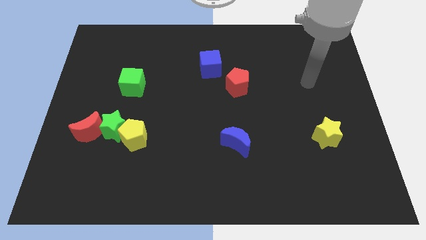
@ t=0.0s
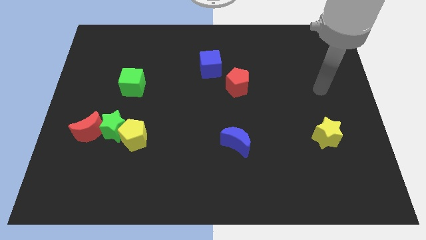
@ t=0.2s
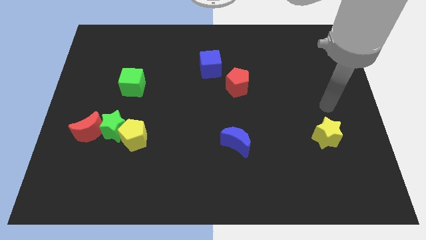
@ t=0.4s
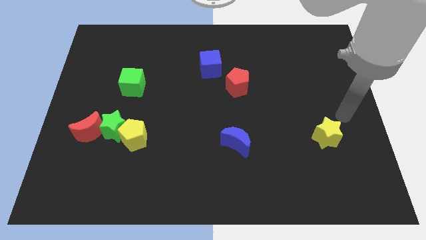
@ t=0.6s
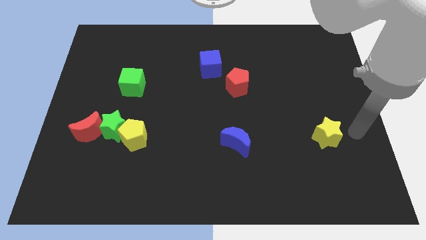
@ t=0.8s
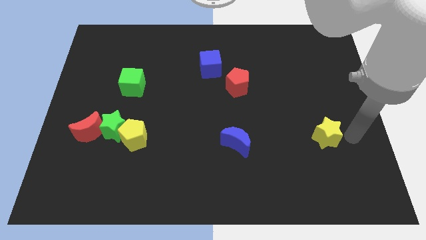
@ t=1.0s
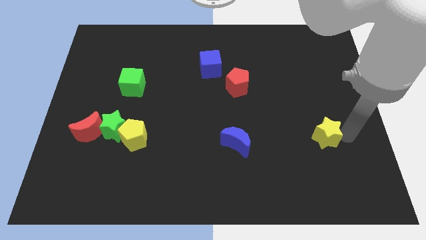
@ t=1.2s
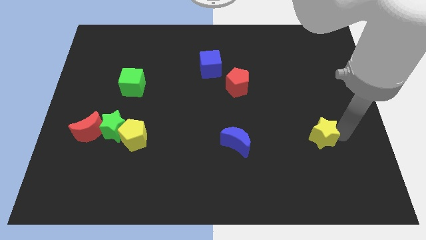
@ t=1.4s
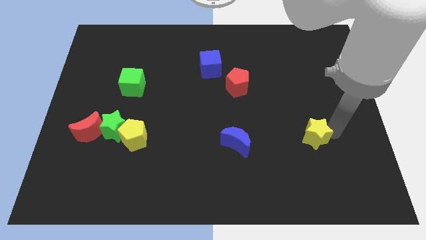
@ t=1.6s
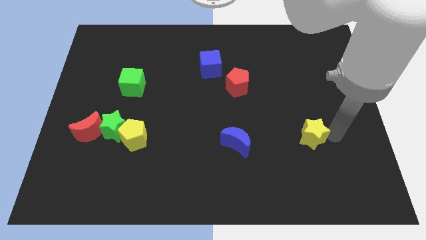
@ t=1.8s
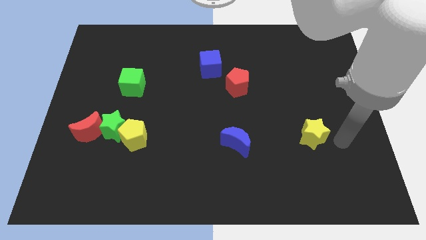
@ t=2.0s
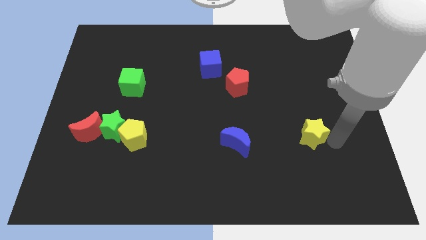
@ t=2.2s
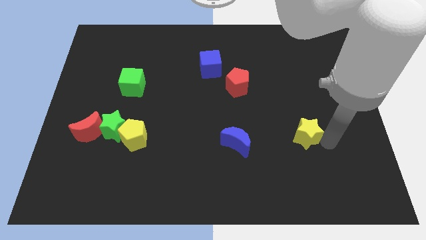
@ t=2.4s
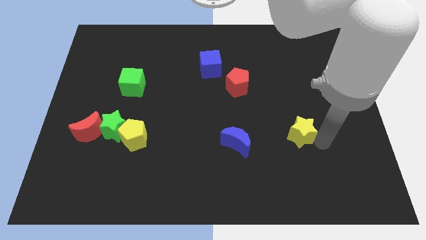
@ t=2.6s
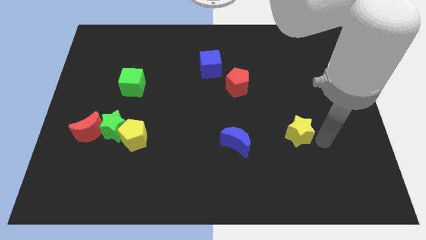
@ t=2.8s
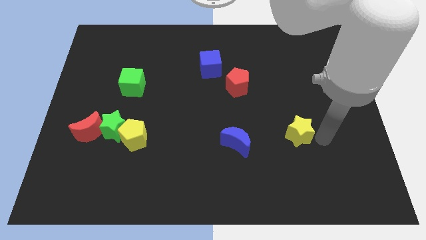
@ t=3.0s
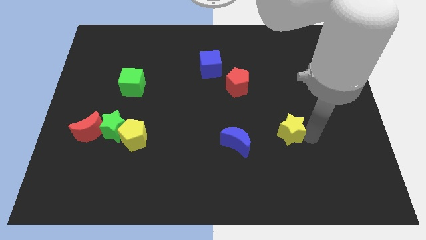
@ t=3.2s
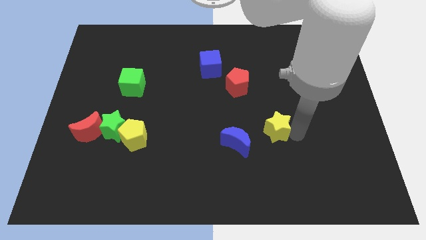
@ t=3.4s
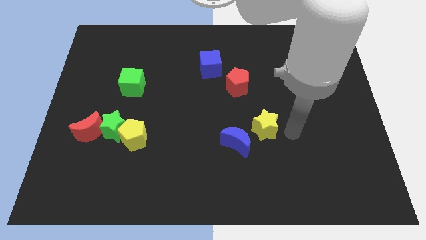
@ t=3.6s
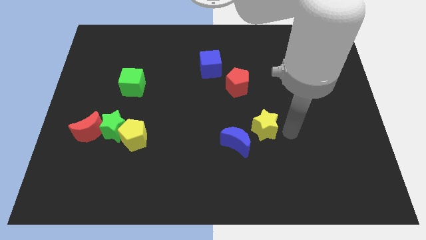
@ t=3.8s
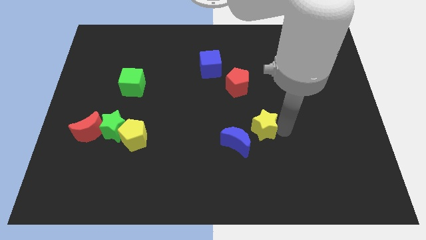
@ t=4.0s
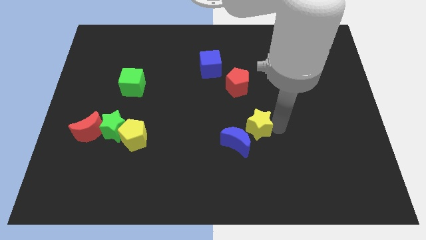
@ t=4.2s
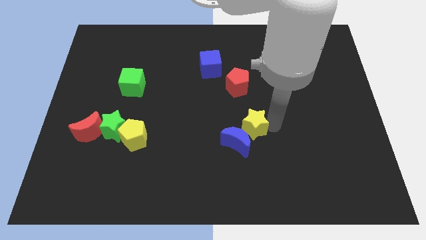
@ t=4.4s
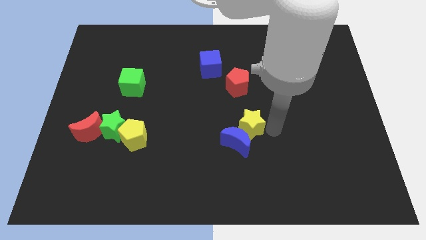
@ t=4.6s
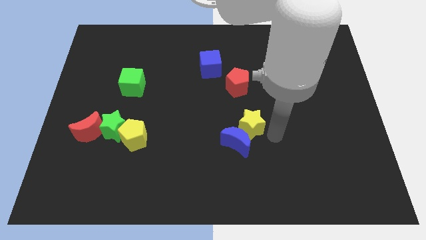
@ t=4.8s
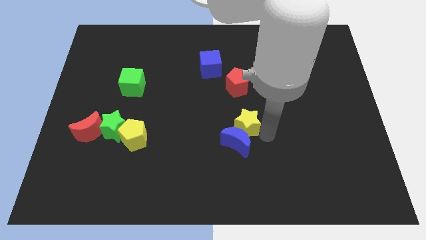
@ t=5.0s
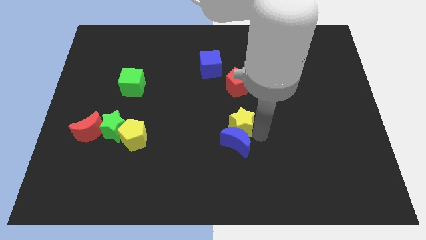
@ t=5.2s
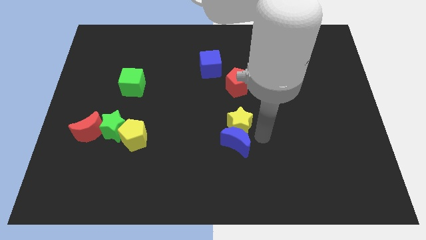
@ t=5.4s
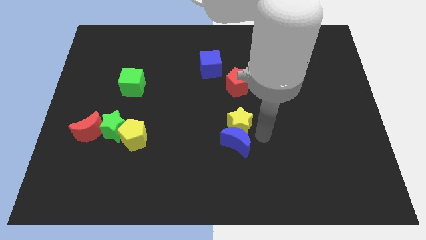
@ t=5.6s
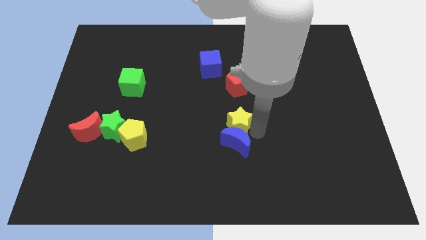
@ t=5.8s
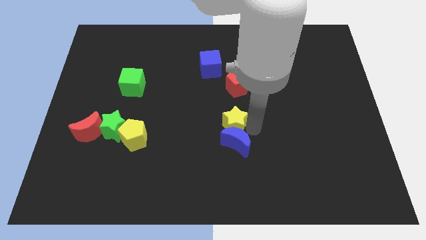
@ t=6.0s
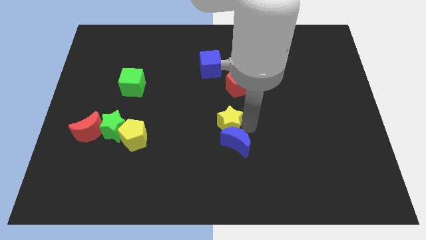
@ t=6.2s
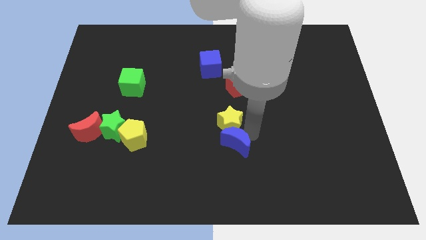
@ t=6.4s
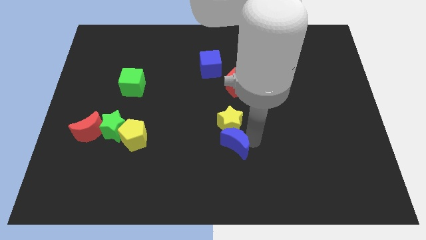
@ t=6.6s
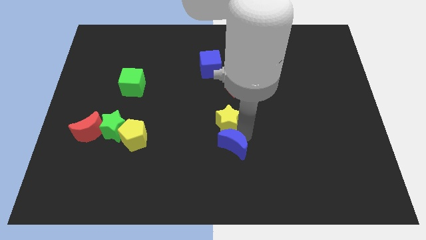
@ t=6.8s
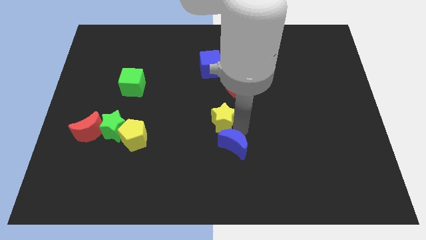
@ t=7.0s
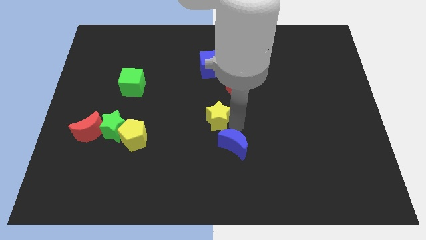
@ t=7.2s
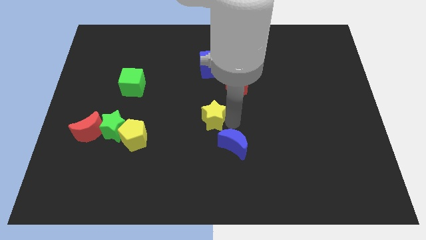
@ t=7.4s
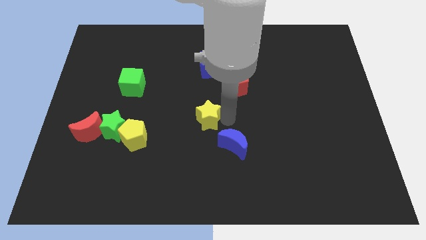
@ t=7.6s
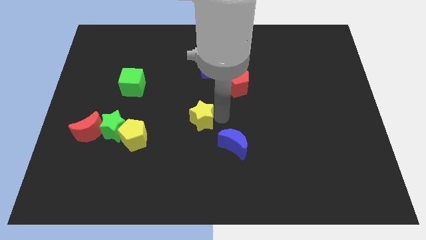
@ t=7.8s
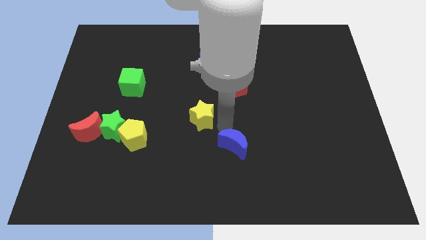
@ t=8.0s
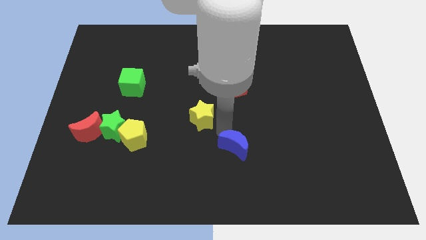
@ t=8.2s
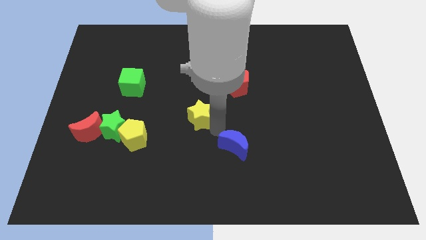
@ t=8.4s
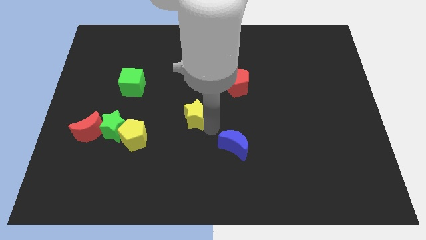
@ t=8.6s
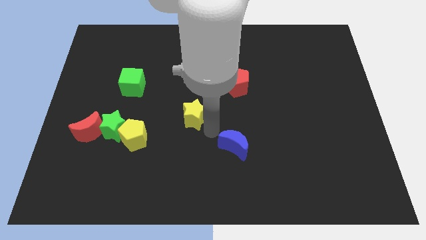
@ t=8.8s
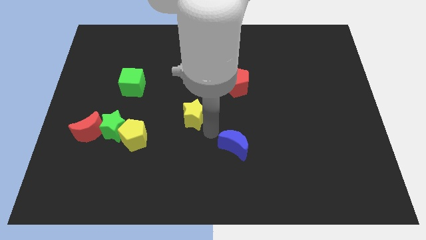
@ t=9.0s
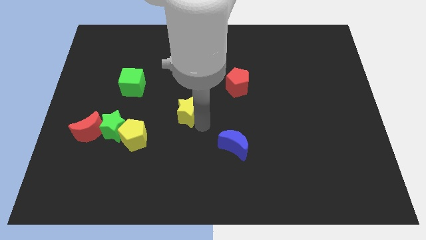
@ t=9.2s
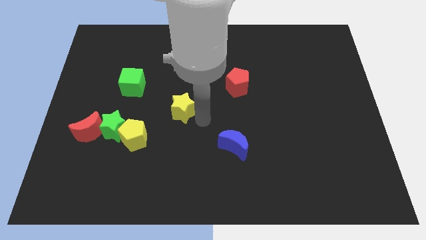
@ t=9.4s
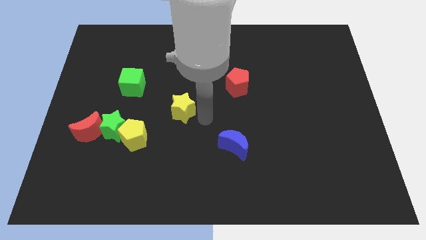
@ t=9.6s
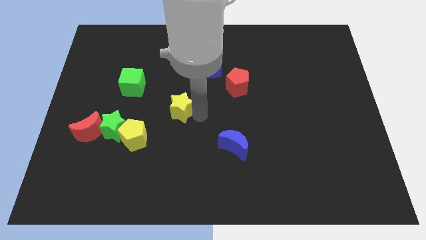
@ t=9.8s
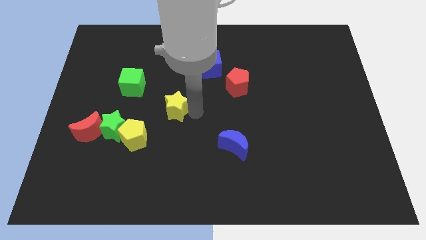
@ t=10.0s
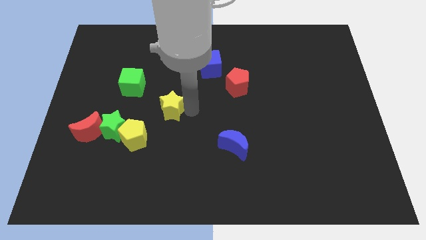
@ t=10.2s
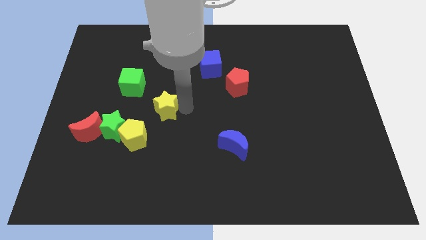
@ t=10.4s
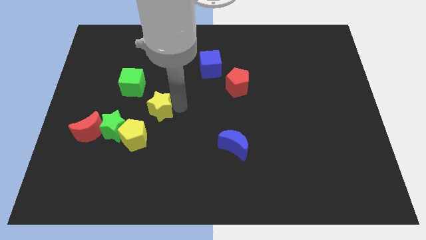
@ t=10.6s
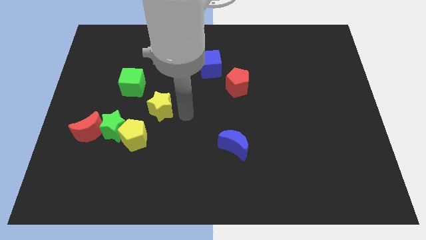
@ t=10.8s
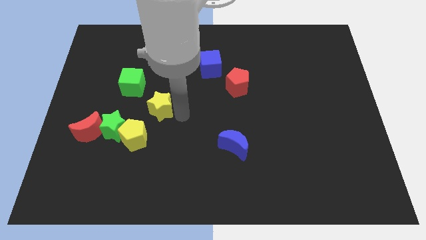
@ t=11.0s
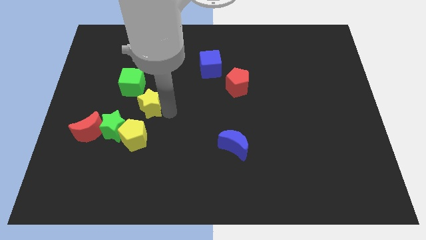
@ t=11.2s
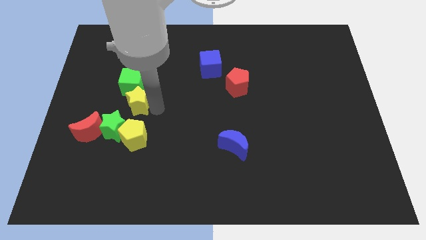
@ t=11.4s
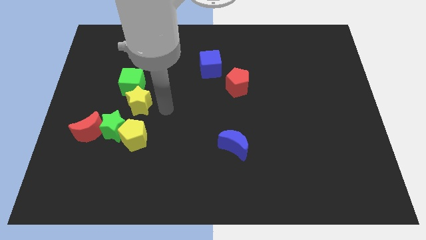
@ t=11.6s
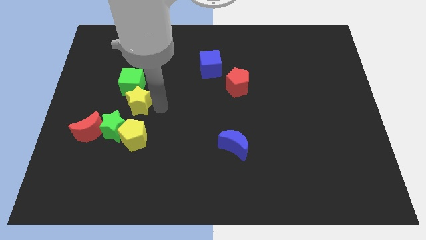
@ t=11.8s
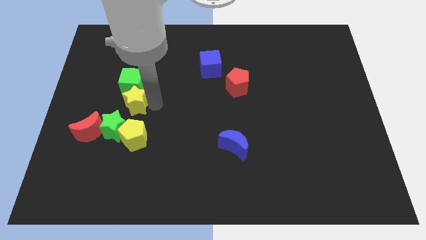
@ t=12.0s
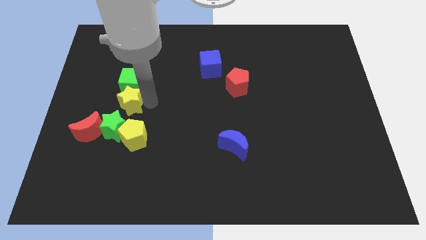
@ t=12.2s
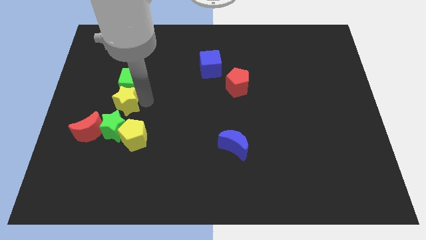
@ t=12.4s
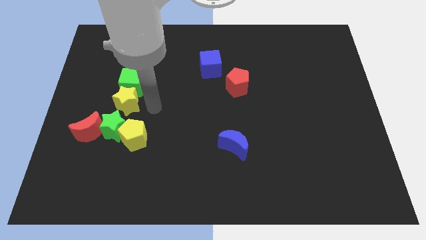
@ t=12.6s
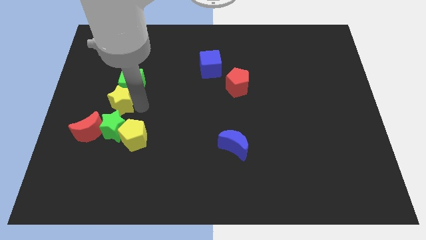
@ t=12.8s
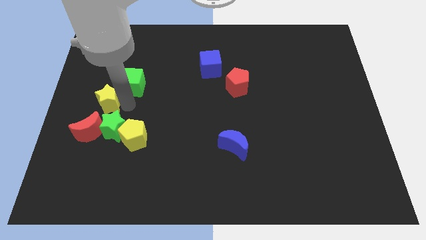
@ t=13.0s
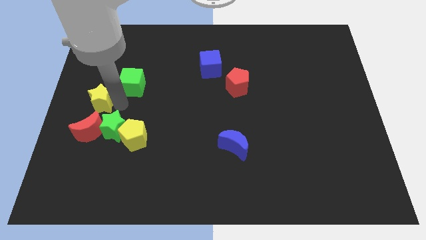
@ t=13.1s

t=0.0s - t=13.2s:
move the yellow star to the left side
